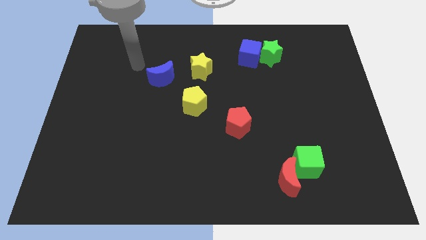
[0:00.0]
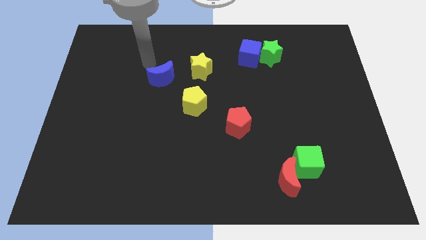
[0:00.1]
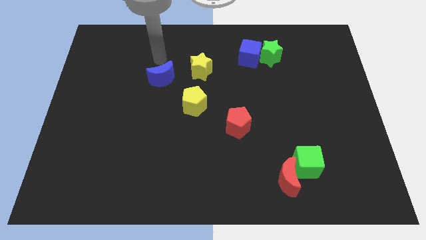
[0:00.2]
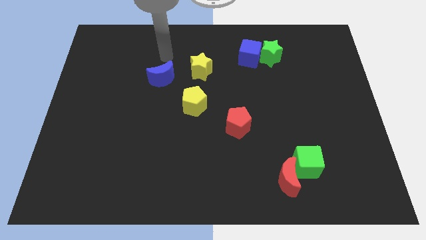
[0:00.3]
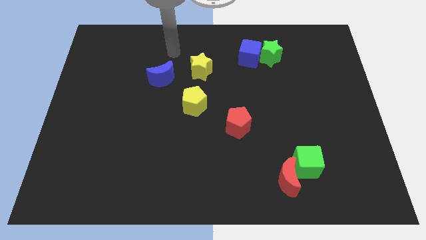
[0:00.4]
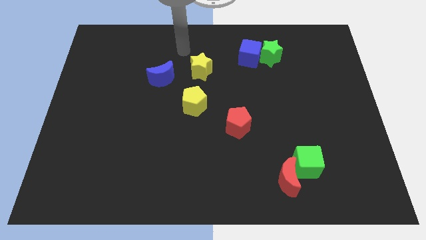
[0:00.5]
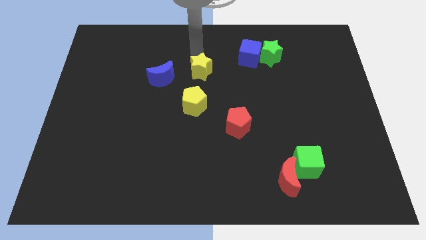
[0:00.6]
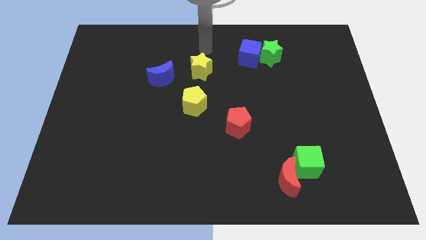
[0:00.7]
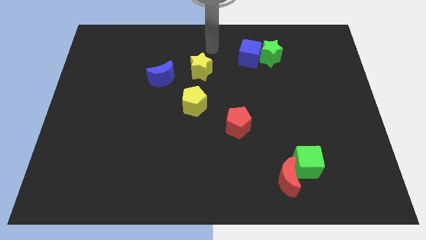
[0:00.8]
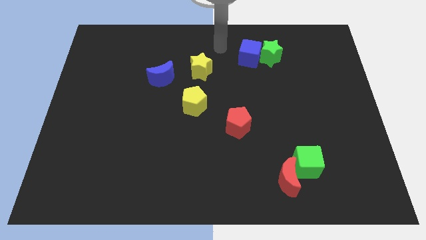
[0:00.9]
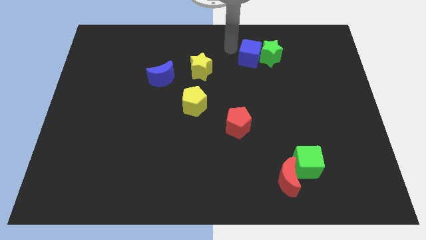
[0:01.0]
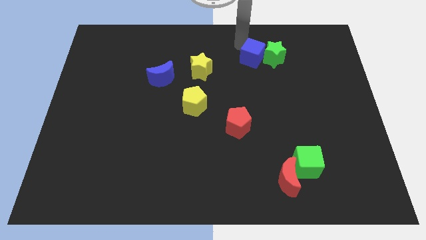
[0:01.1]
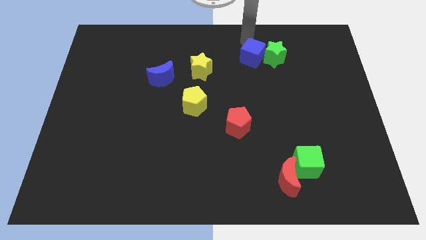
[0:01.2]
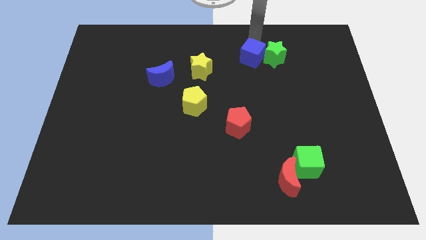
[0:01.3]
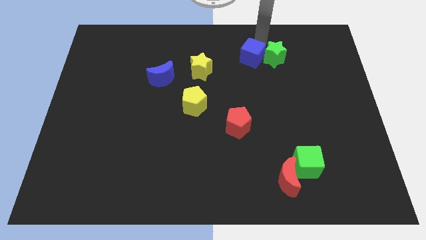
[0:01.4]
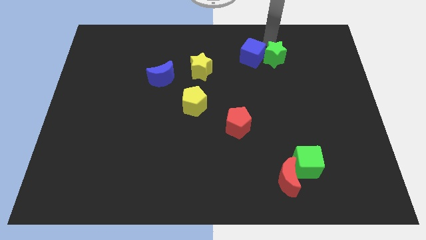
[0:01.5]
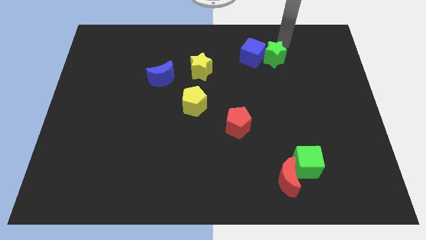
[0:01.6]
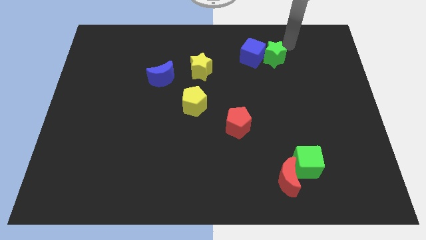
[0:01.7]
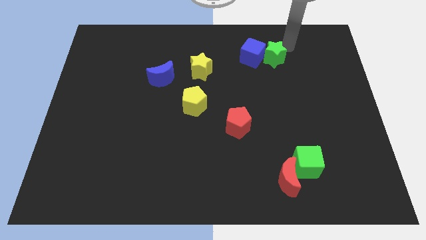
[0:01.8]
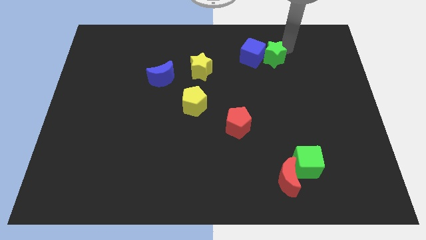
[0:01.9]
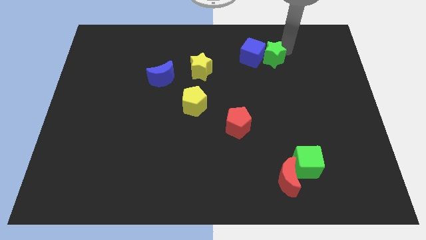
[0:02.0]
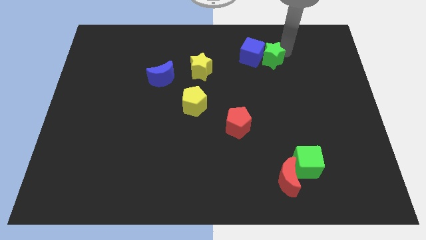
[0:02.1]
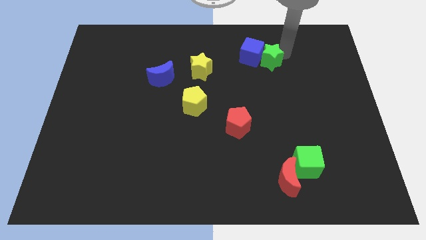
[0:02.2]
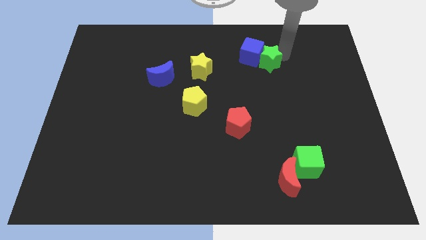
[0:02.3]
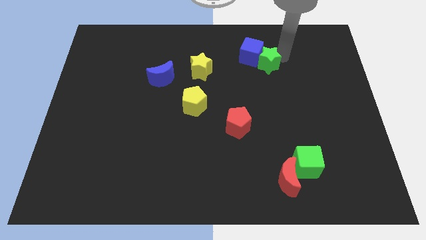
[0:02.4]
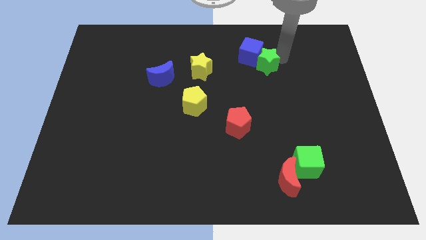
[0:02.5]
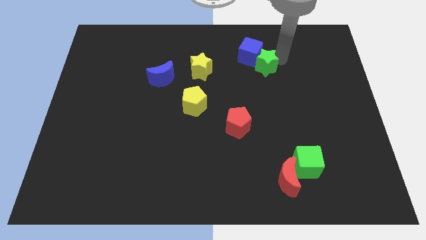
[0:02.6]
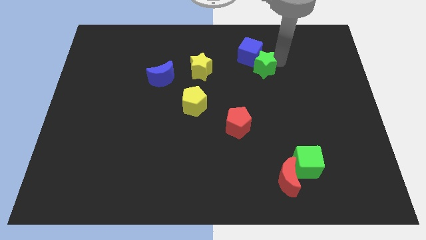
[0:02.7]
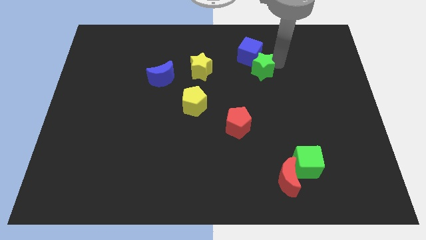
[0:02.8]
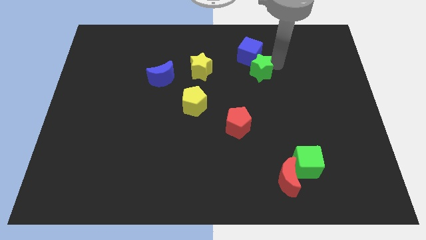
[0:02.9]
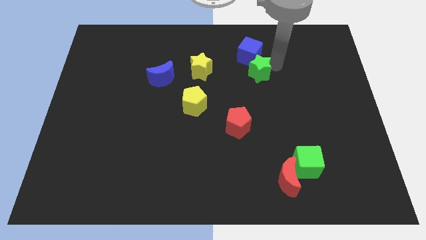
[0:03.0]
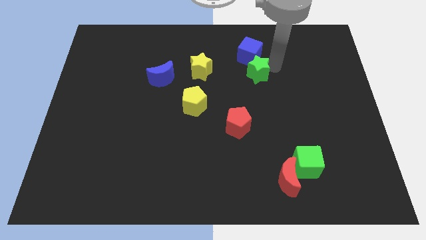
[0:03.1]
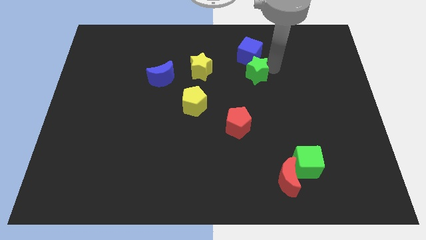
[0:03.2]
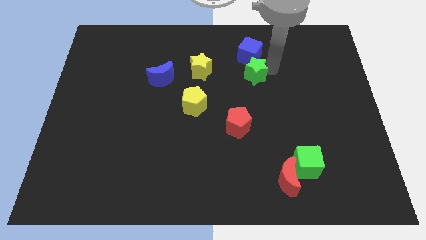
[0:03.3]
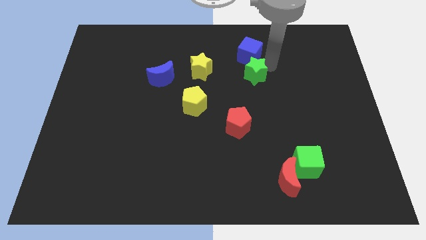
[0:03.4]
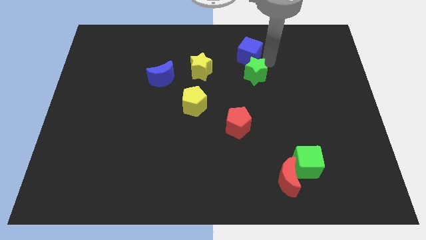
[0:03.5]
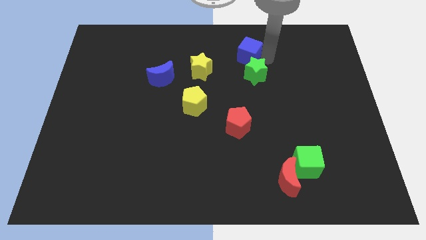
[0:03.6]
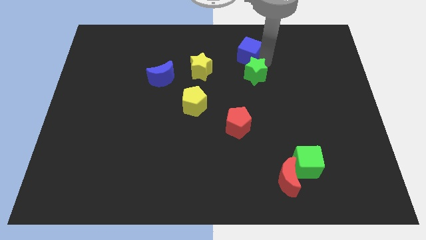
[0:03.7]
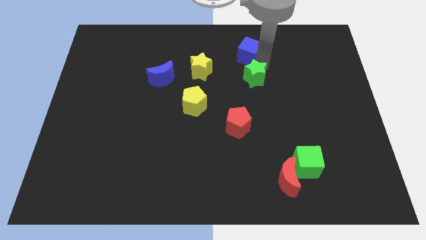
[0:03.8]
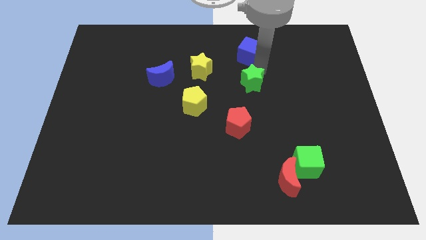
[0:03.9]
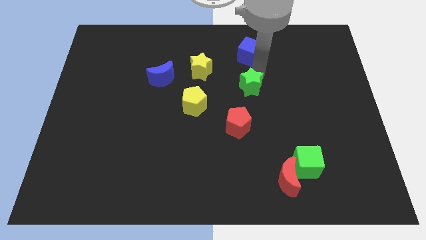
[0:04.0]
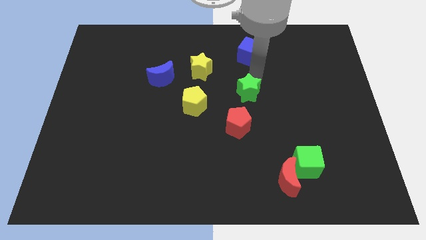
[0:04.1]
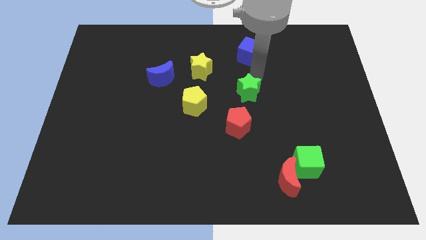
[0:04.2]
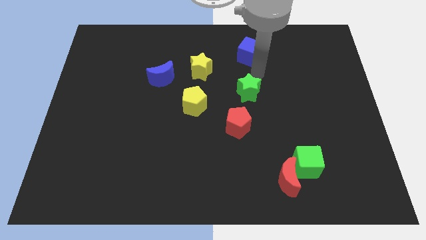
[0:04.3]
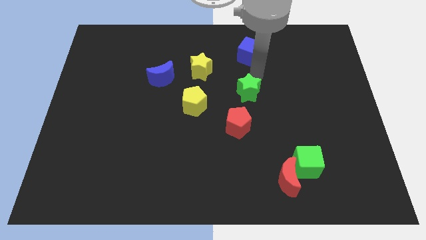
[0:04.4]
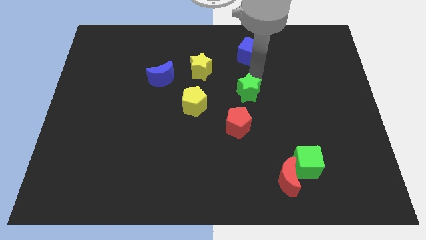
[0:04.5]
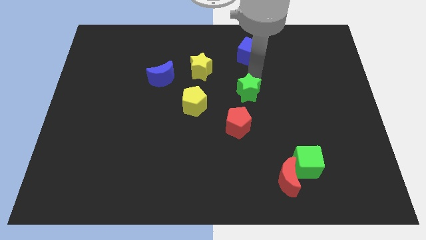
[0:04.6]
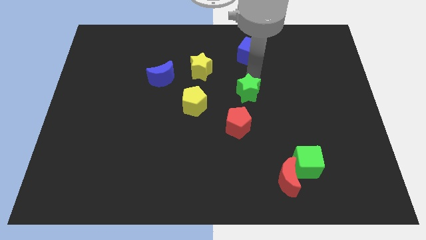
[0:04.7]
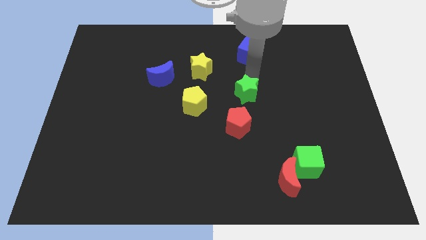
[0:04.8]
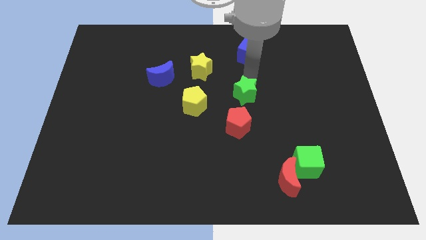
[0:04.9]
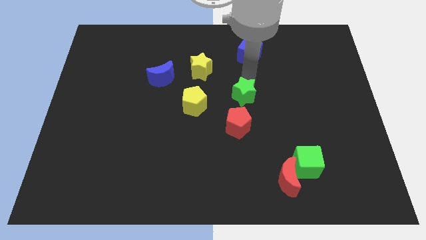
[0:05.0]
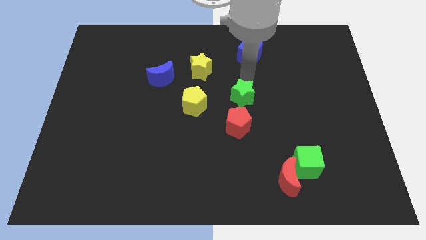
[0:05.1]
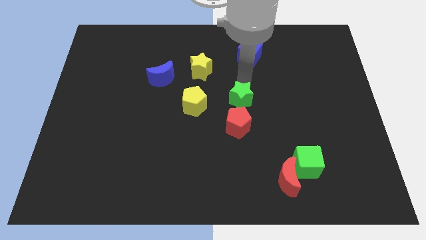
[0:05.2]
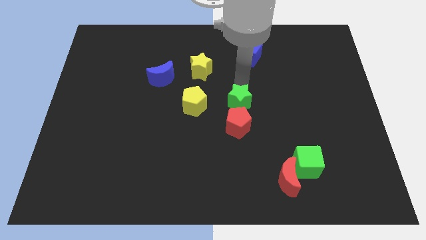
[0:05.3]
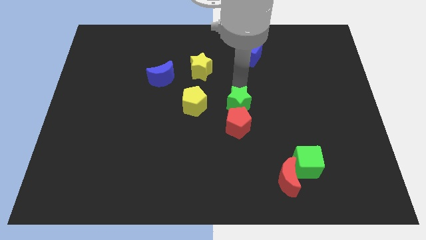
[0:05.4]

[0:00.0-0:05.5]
move the green star next to the red pentagon

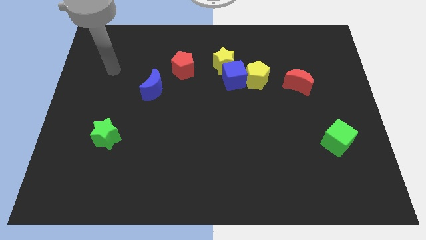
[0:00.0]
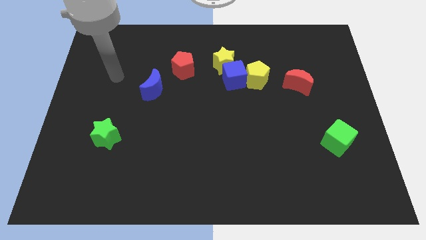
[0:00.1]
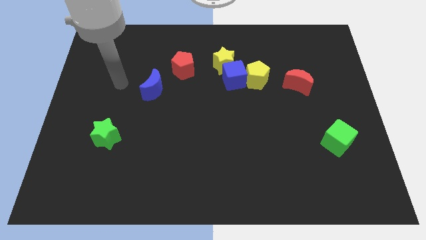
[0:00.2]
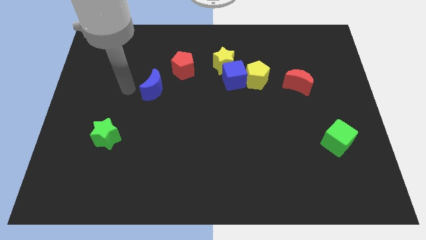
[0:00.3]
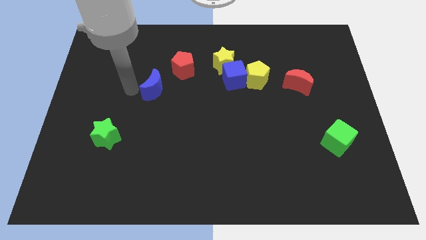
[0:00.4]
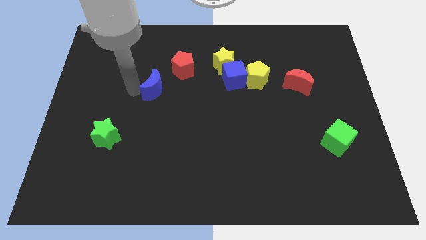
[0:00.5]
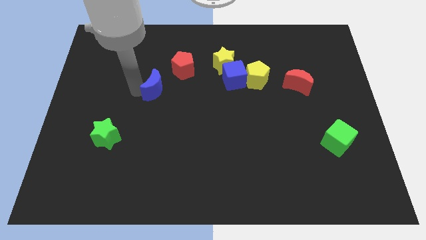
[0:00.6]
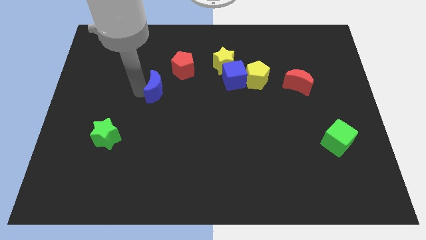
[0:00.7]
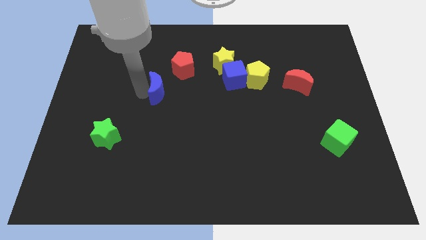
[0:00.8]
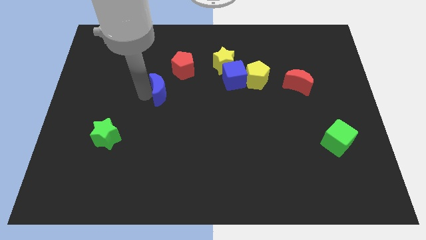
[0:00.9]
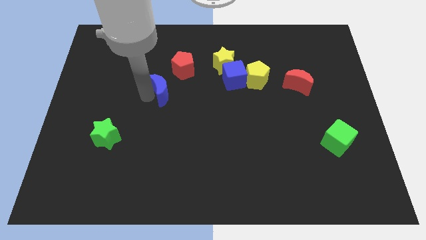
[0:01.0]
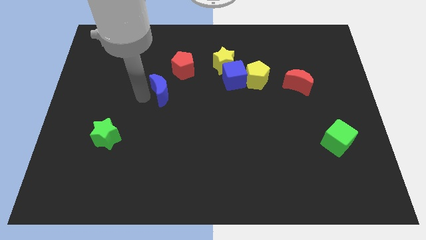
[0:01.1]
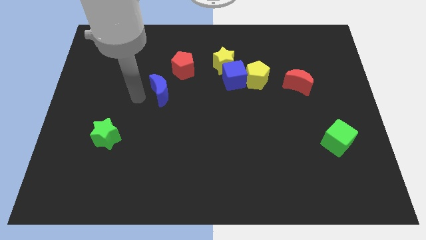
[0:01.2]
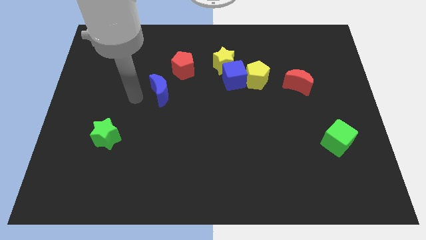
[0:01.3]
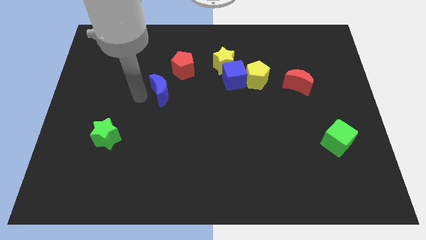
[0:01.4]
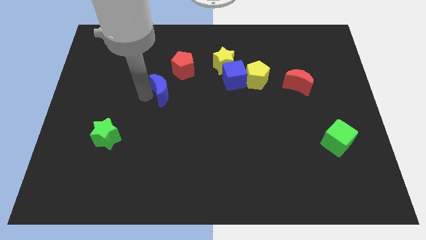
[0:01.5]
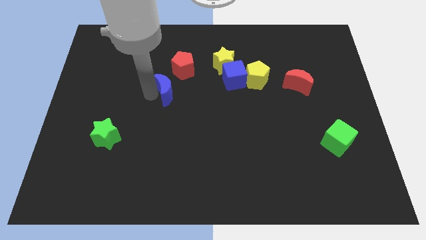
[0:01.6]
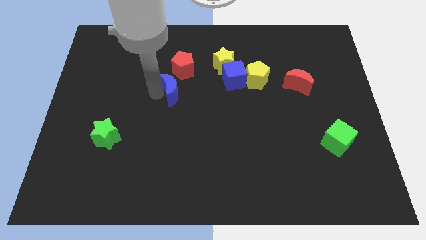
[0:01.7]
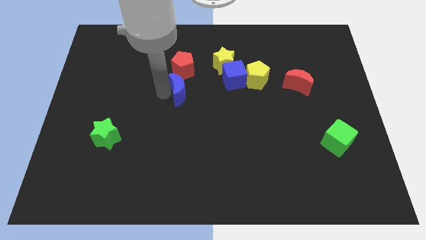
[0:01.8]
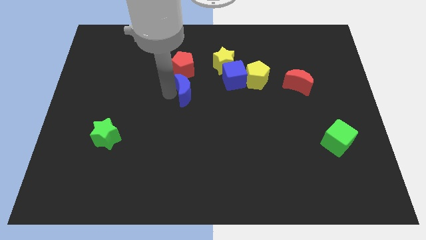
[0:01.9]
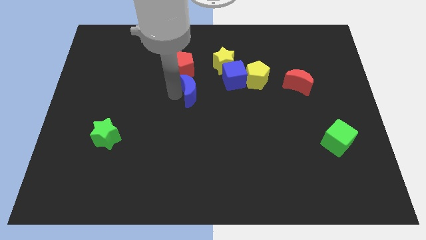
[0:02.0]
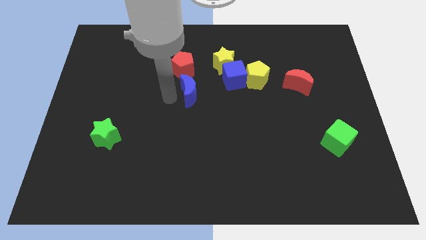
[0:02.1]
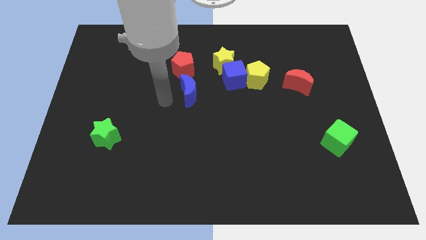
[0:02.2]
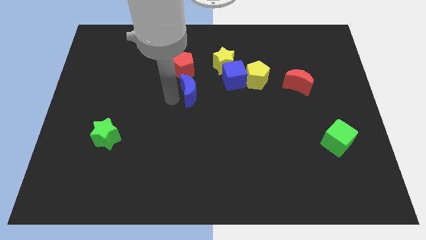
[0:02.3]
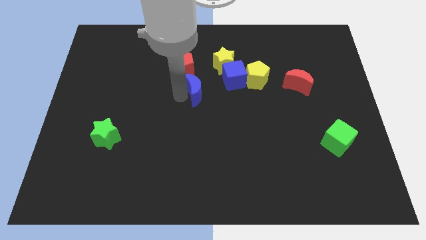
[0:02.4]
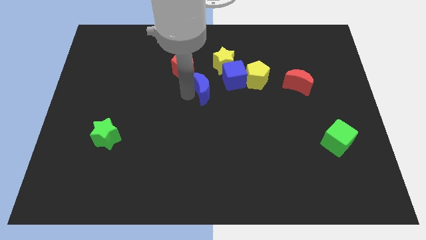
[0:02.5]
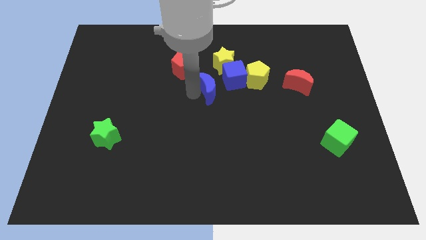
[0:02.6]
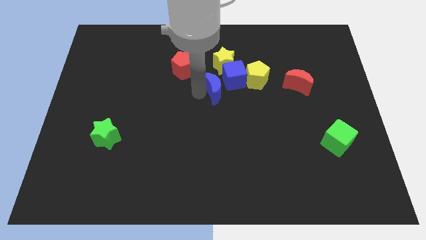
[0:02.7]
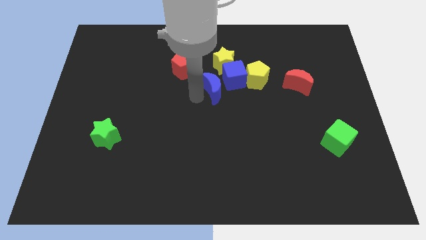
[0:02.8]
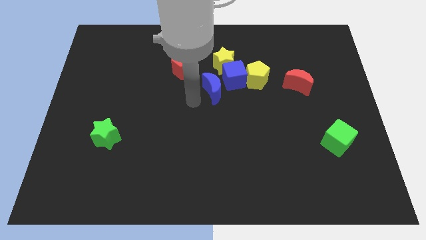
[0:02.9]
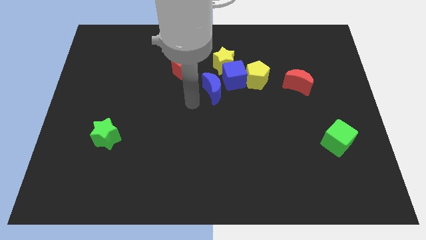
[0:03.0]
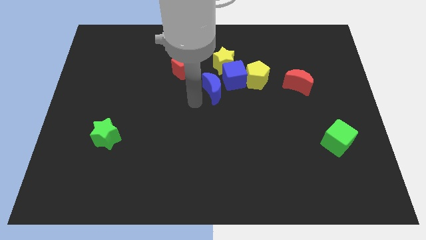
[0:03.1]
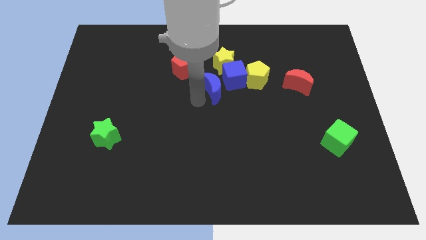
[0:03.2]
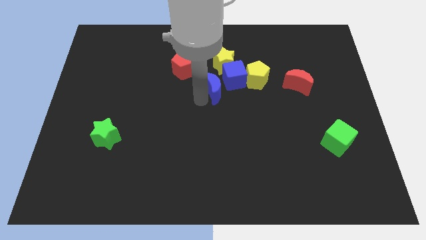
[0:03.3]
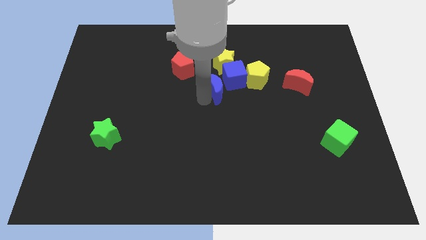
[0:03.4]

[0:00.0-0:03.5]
push the blue moon next to the blue cube
